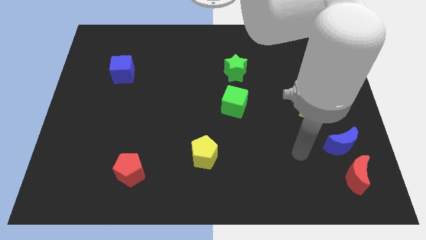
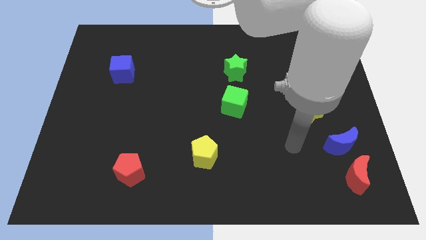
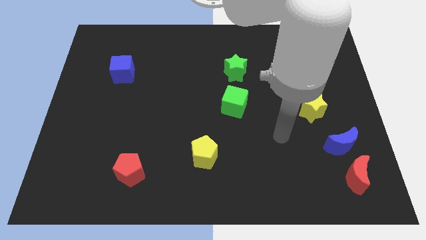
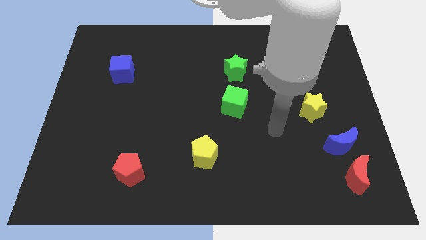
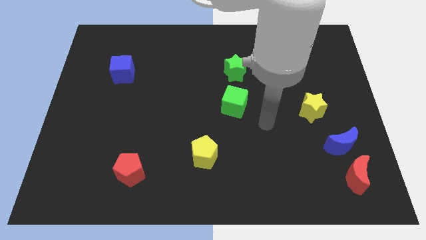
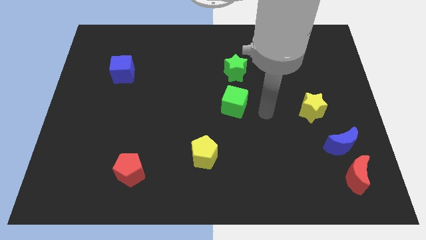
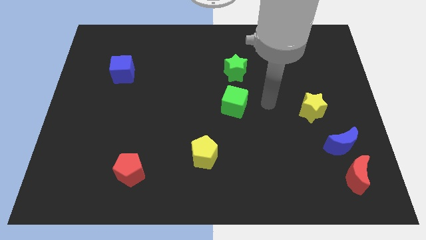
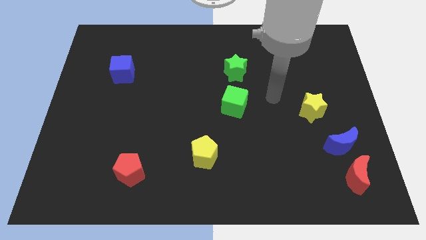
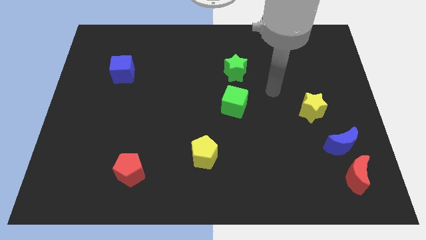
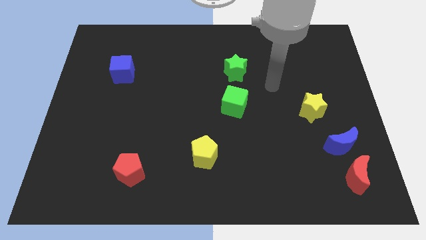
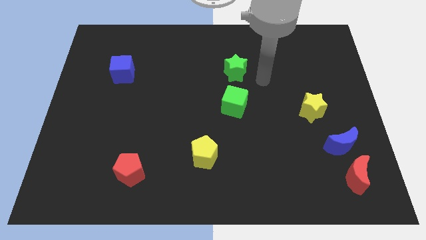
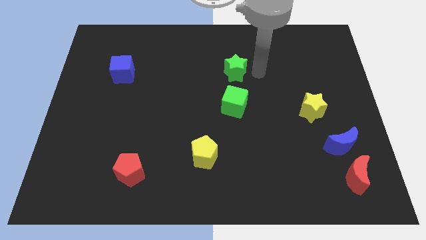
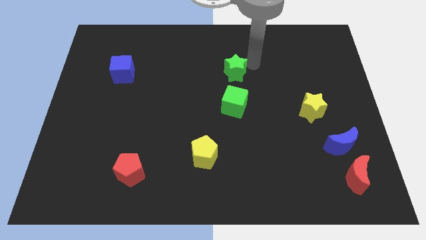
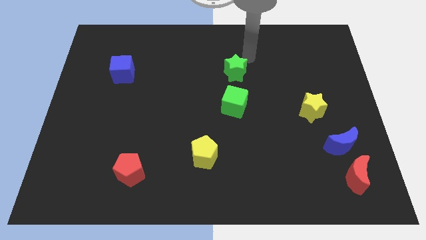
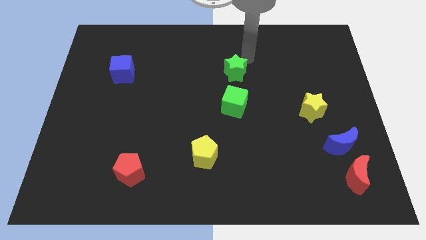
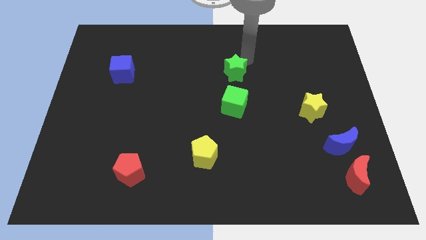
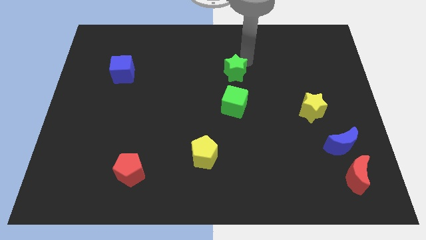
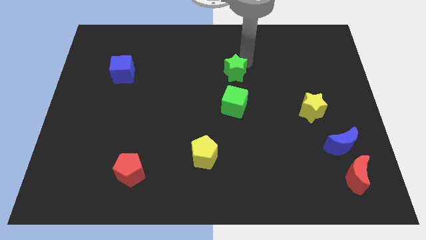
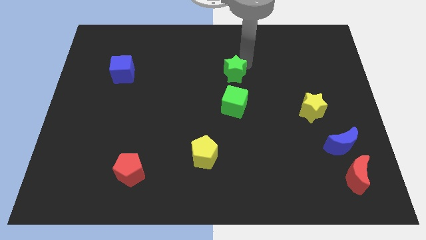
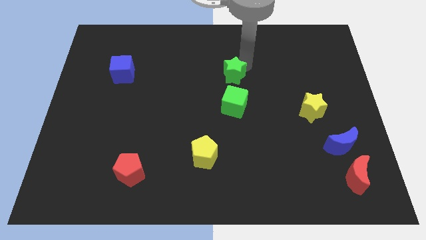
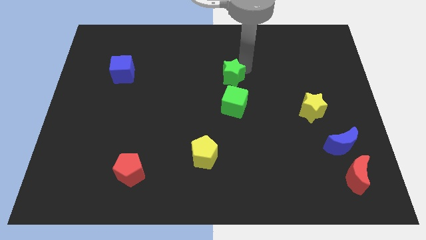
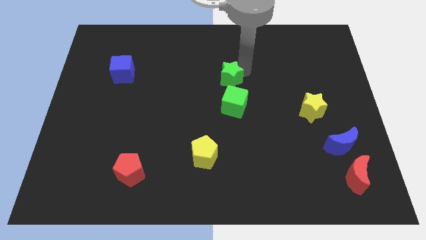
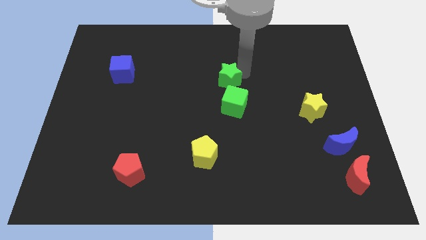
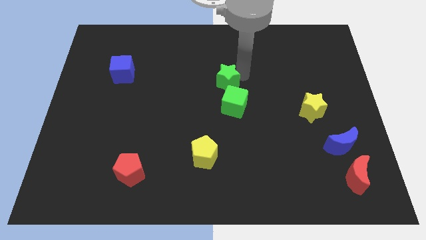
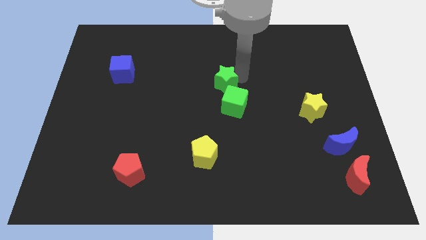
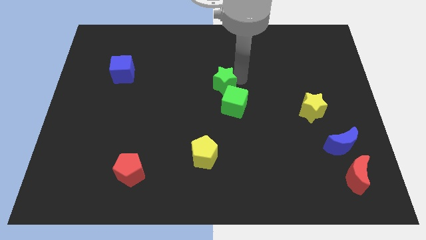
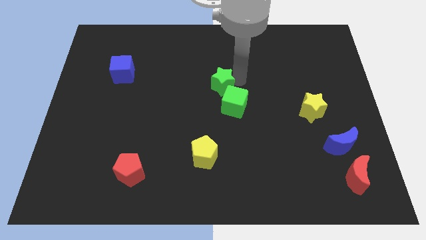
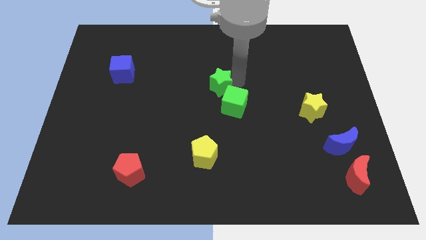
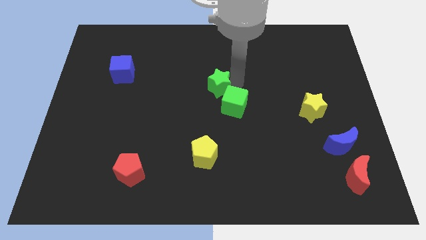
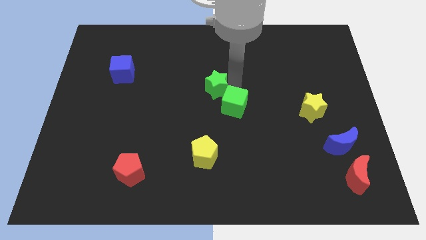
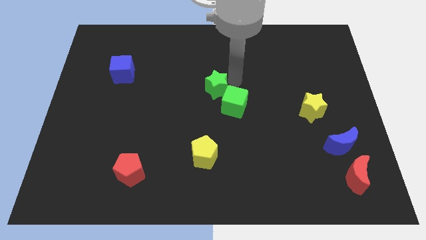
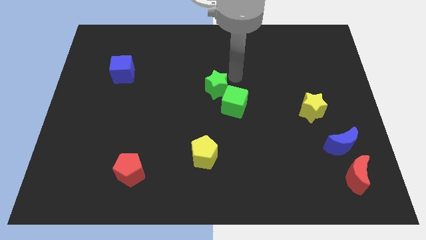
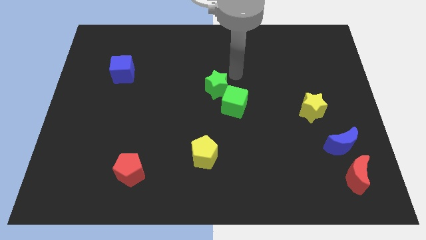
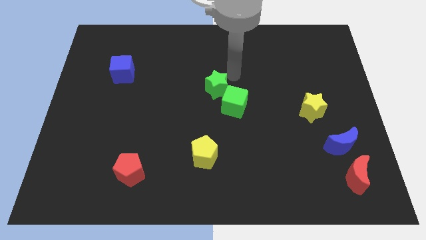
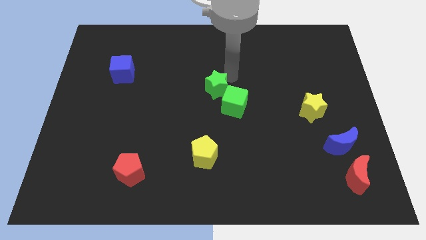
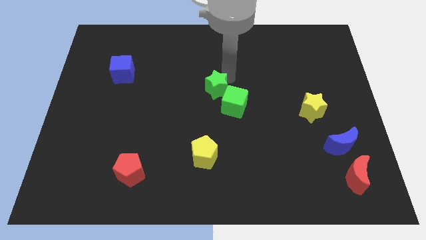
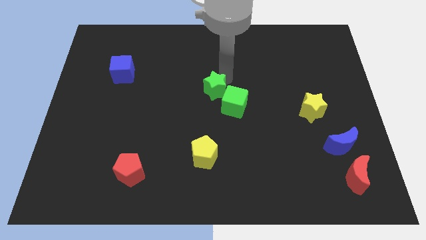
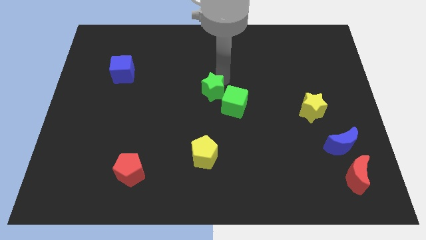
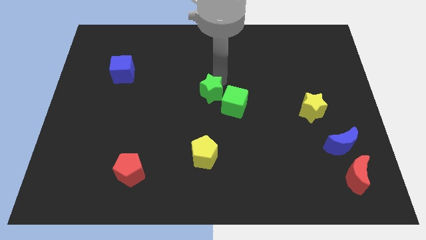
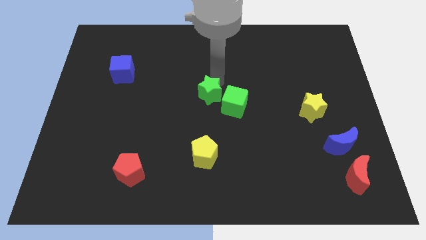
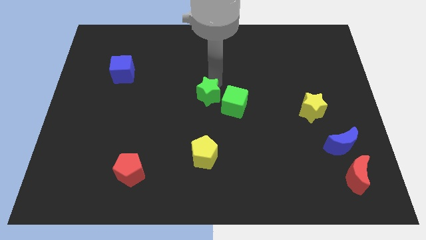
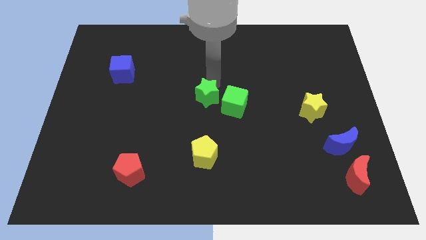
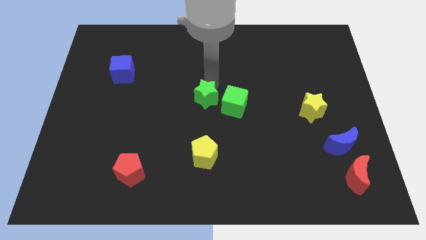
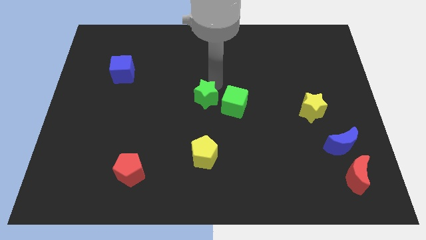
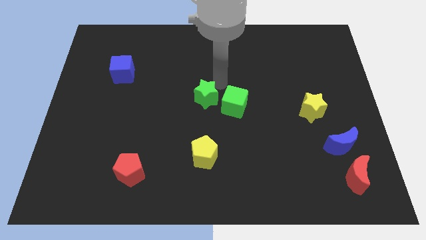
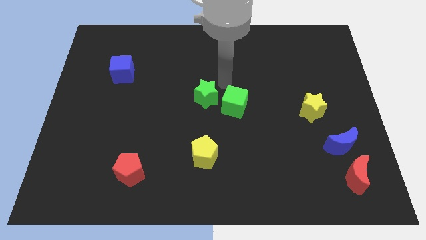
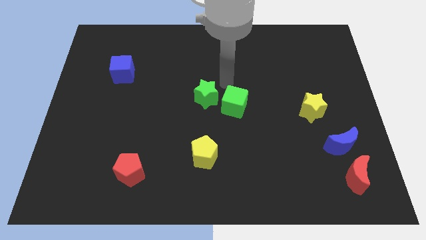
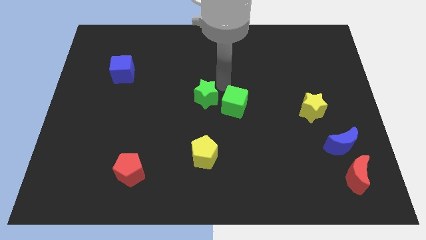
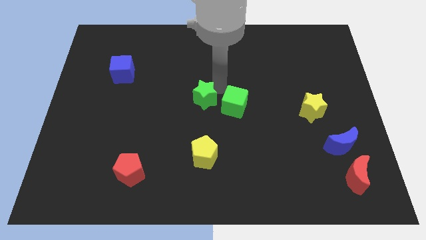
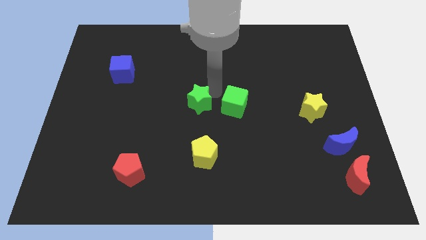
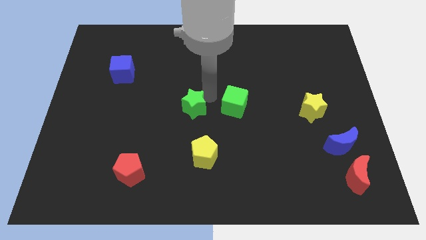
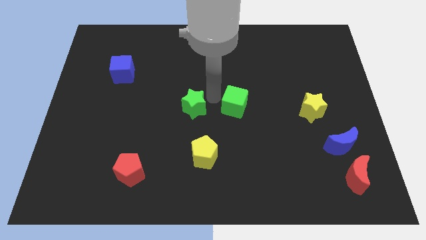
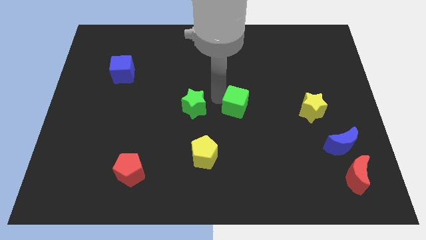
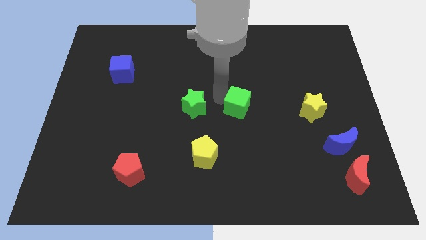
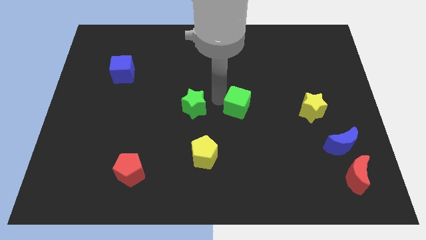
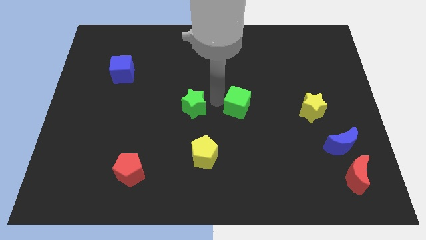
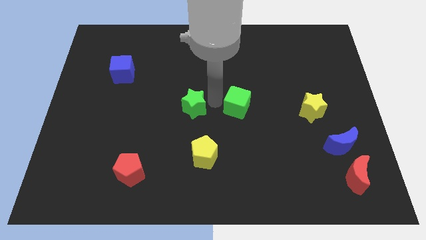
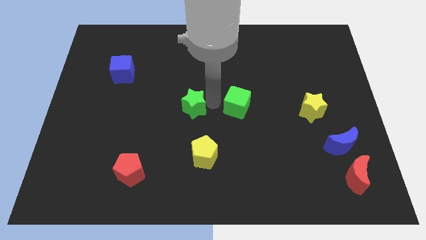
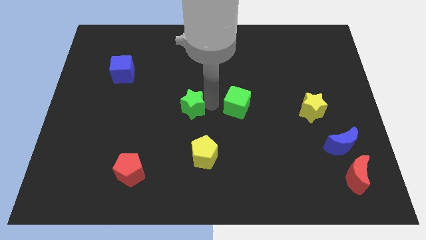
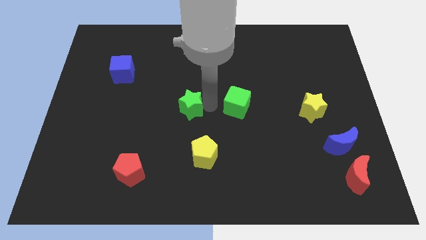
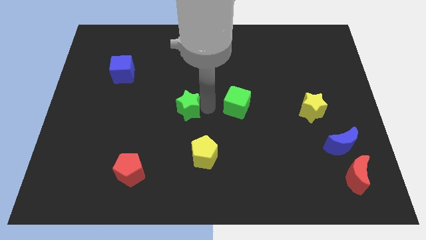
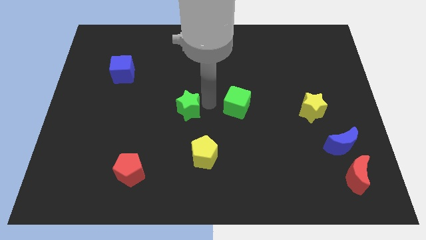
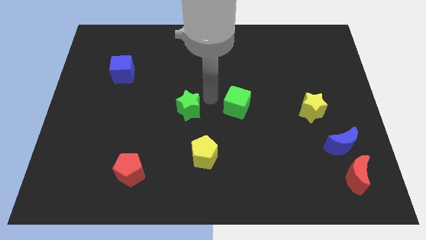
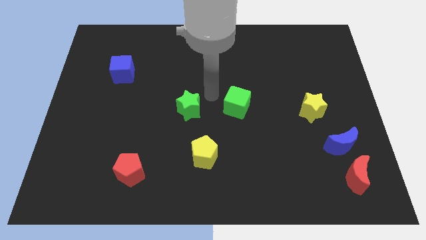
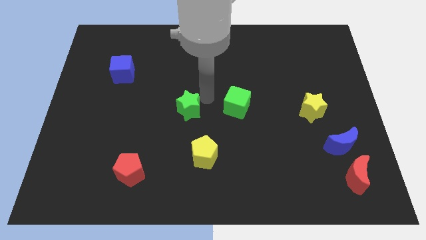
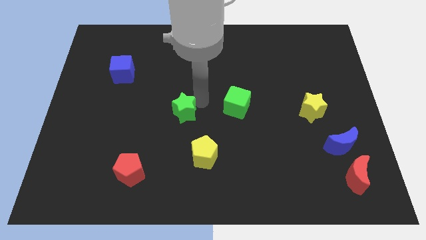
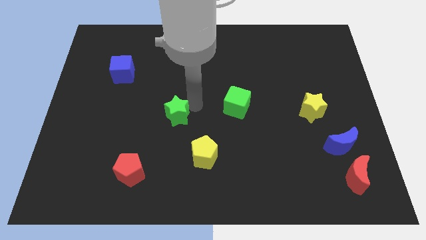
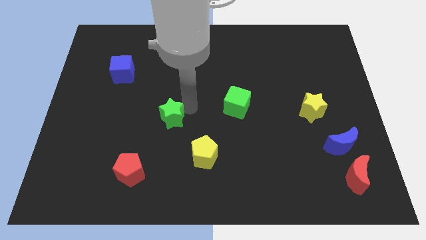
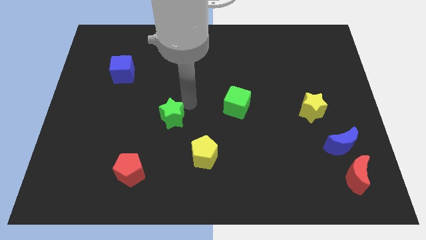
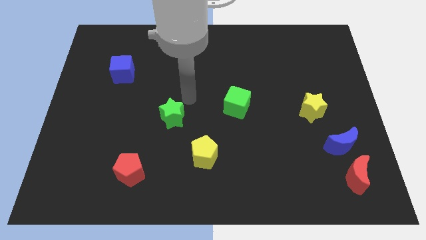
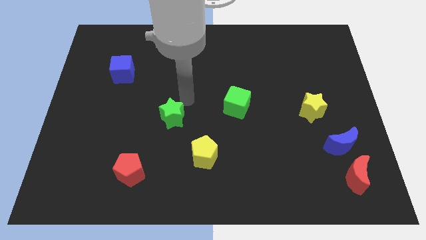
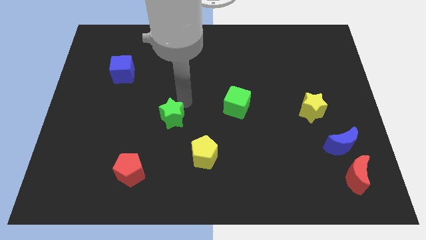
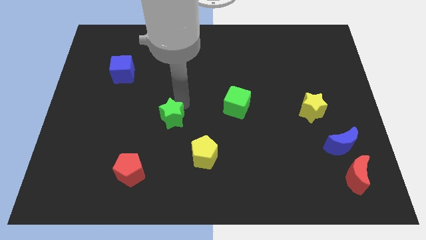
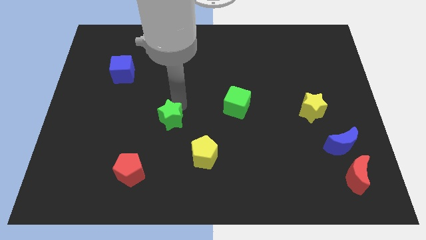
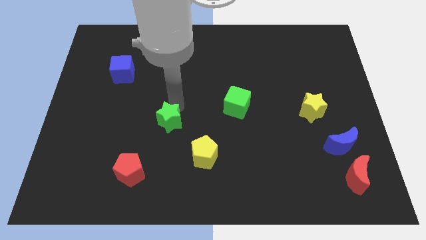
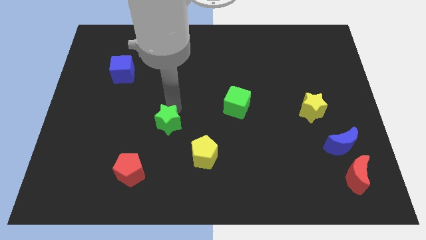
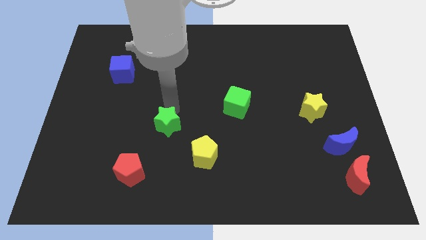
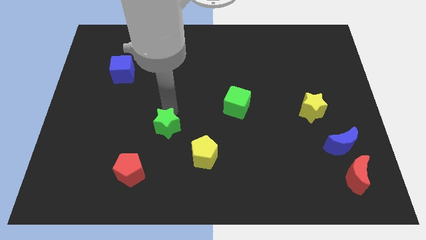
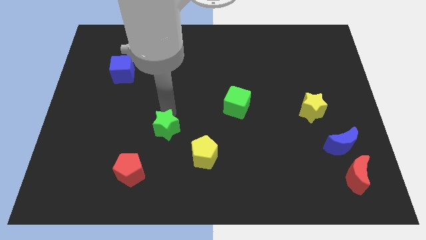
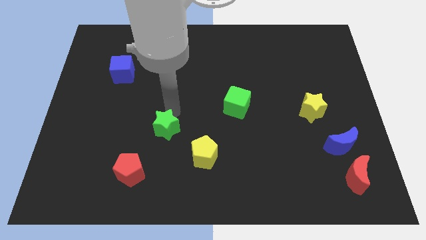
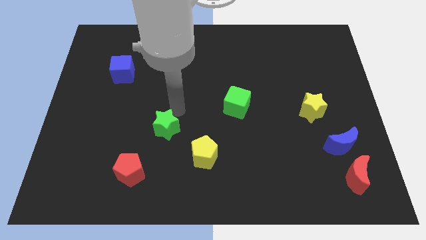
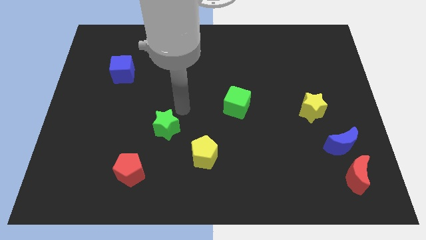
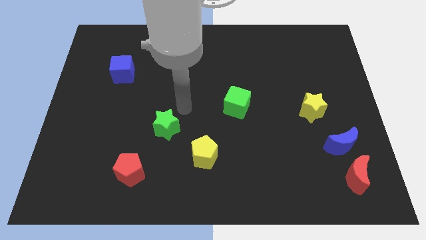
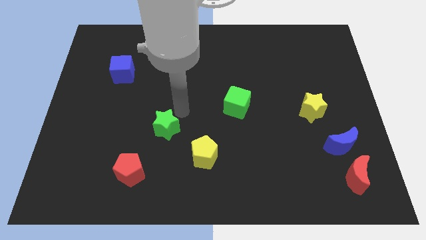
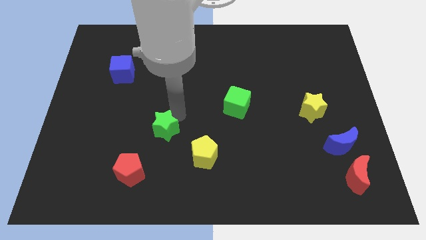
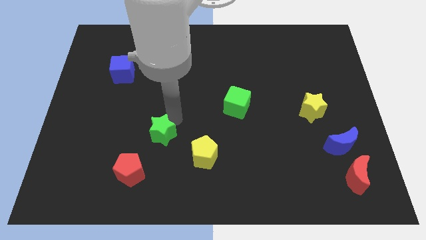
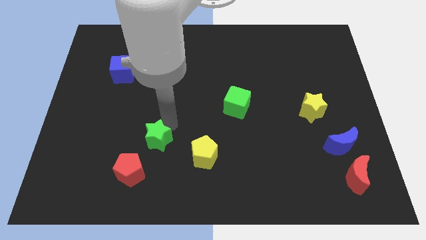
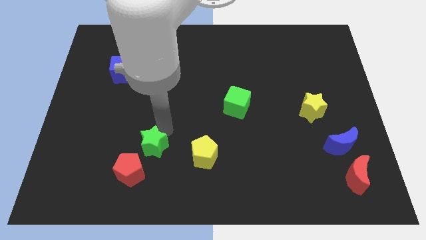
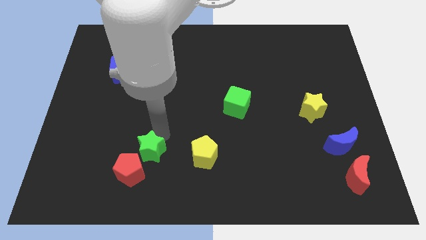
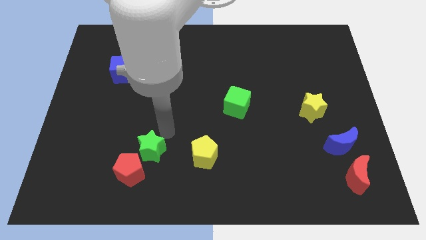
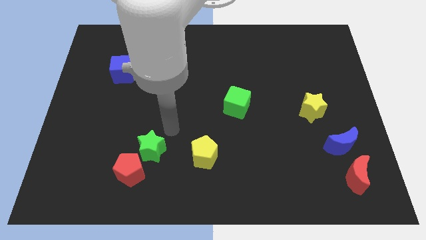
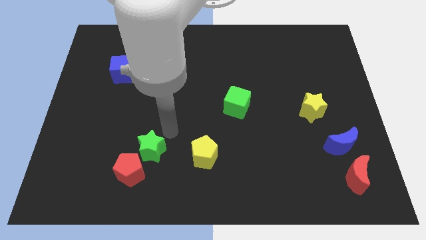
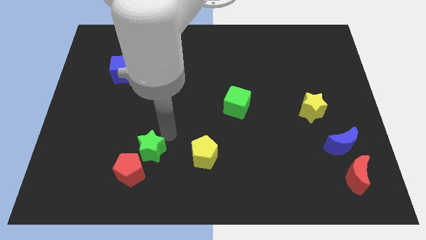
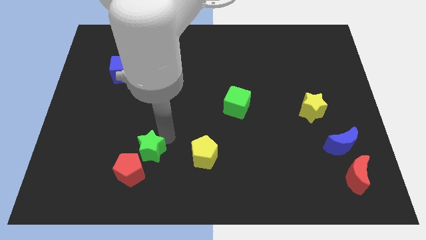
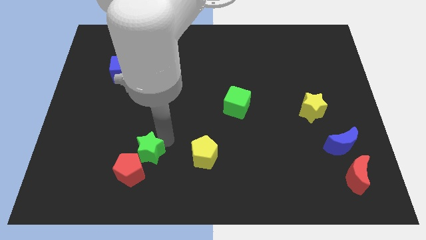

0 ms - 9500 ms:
put the green star close to the red pentagon
